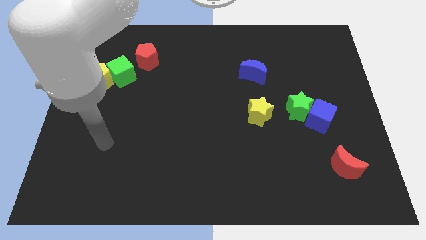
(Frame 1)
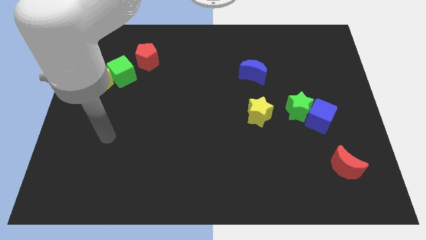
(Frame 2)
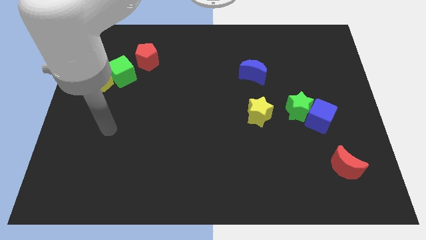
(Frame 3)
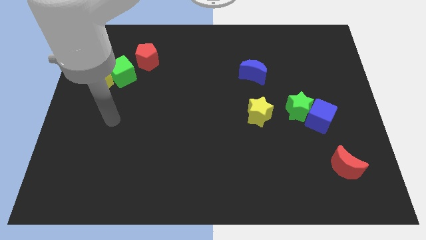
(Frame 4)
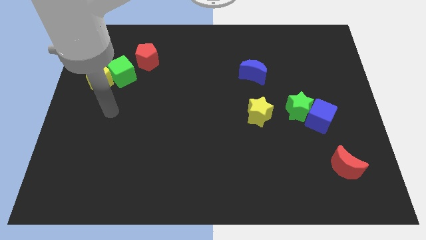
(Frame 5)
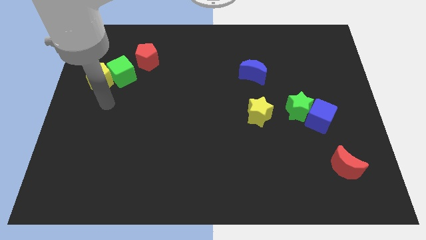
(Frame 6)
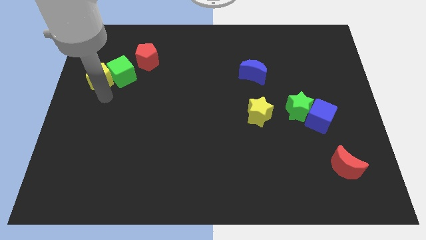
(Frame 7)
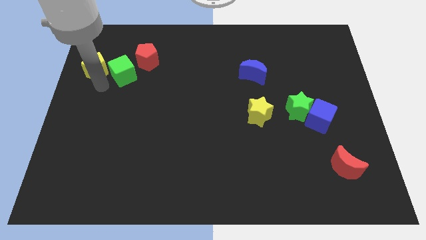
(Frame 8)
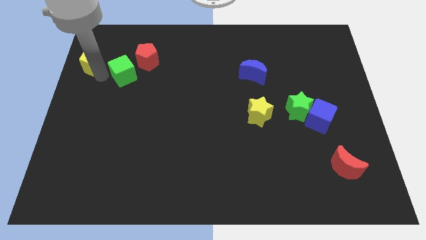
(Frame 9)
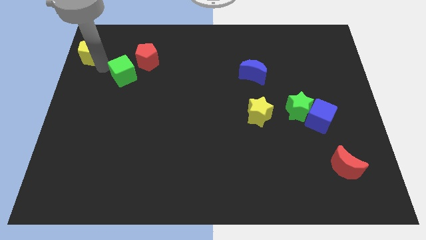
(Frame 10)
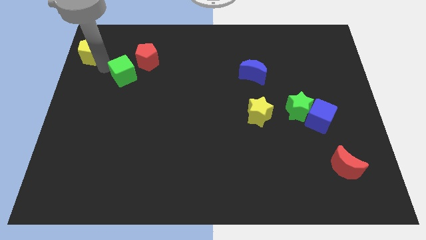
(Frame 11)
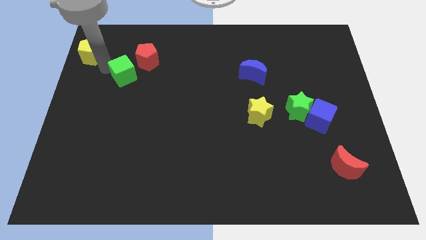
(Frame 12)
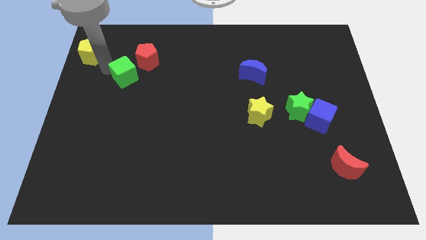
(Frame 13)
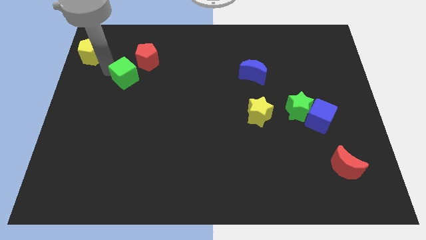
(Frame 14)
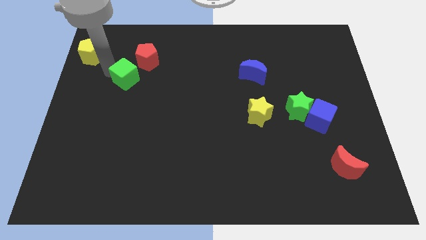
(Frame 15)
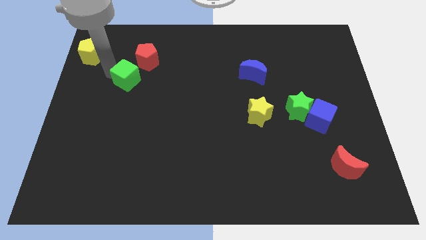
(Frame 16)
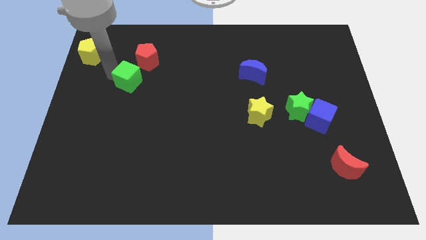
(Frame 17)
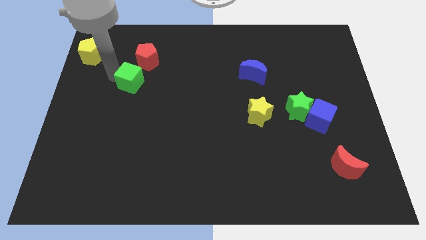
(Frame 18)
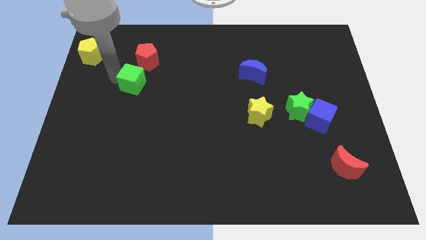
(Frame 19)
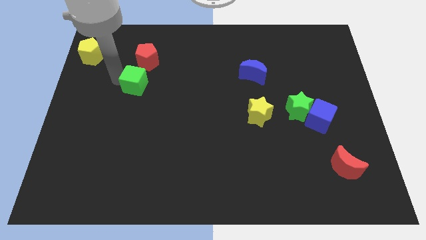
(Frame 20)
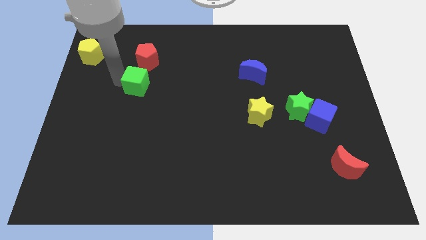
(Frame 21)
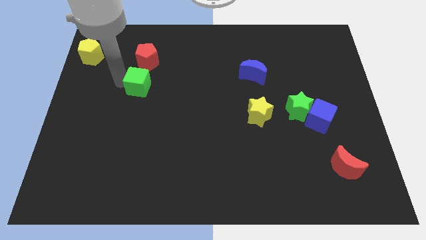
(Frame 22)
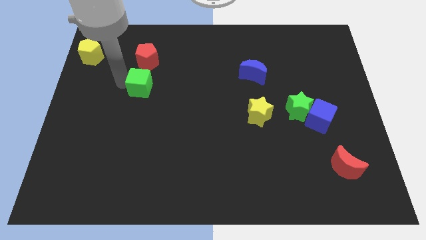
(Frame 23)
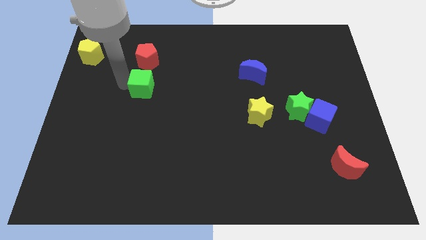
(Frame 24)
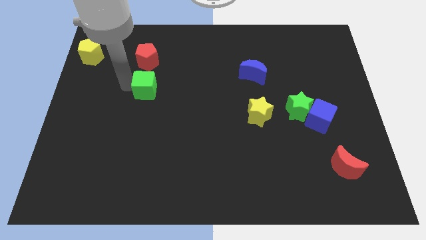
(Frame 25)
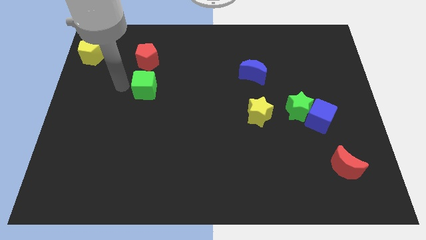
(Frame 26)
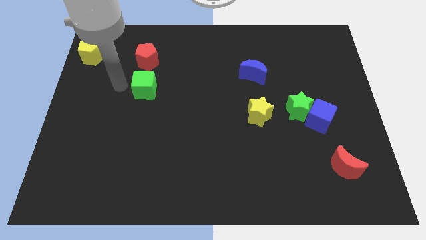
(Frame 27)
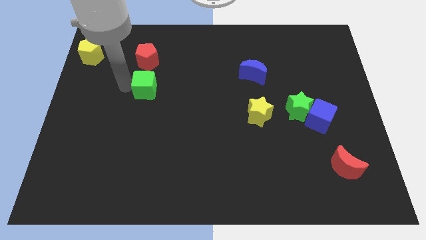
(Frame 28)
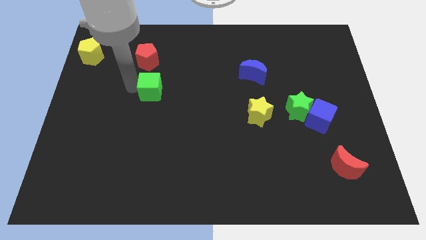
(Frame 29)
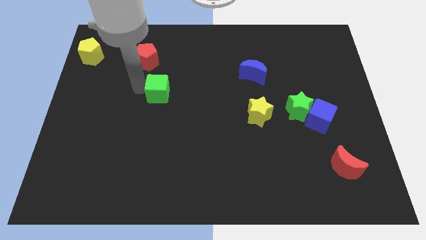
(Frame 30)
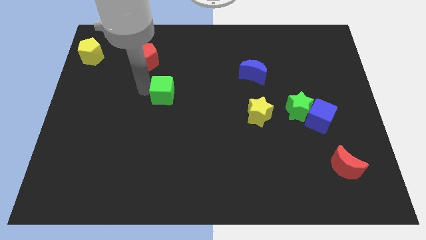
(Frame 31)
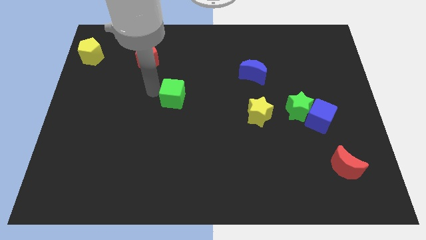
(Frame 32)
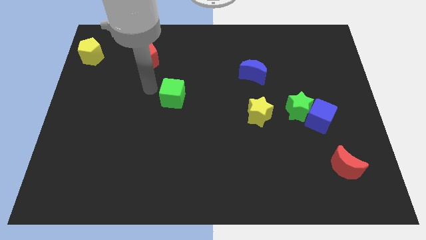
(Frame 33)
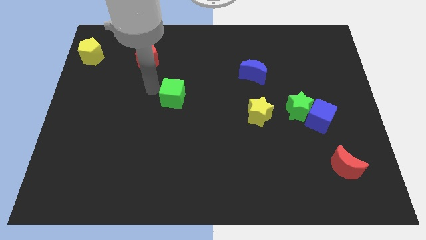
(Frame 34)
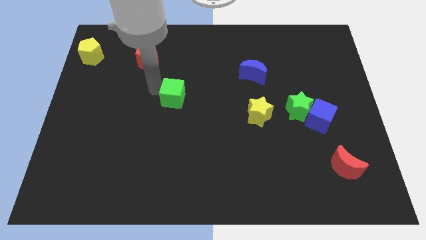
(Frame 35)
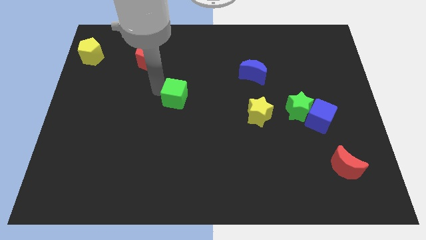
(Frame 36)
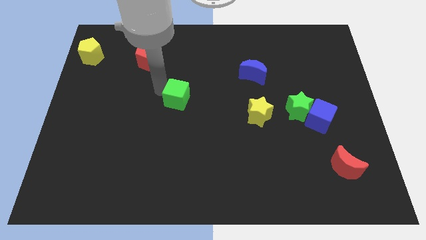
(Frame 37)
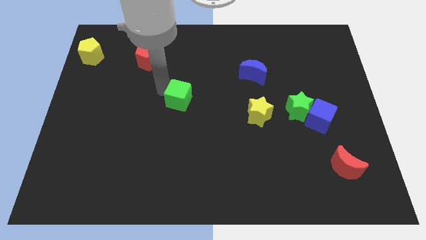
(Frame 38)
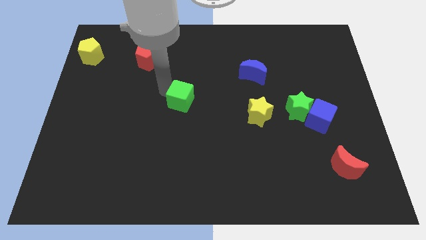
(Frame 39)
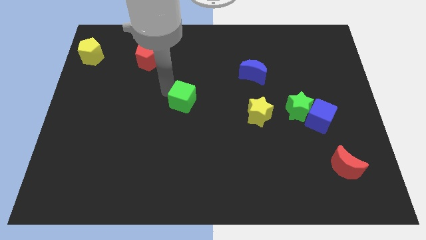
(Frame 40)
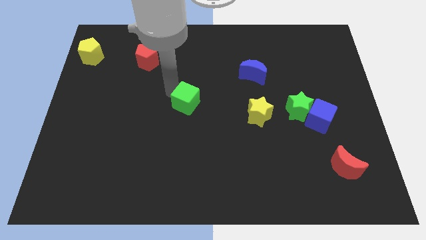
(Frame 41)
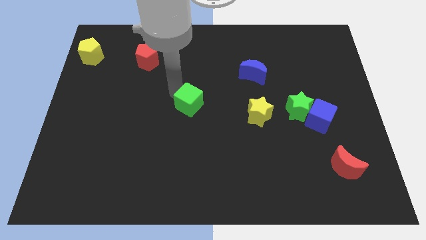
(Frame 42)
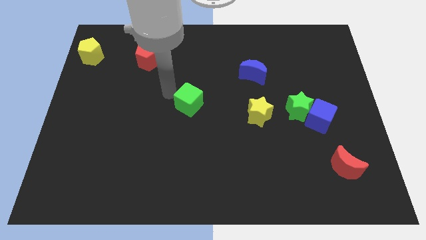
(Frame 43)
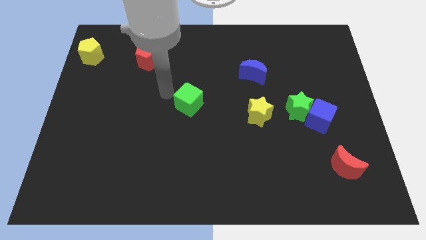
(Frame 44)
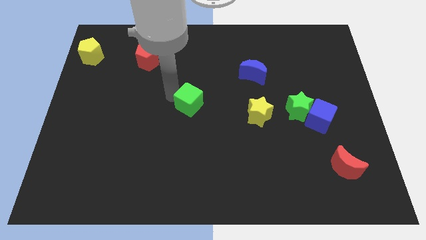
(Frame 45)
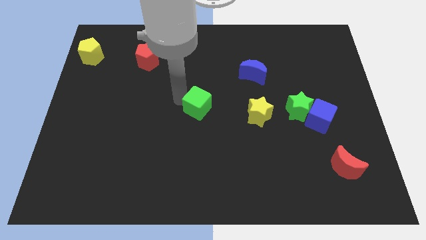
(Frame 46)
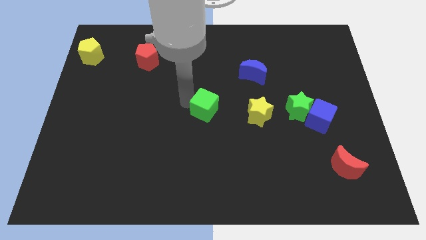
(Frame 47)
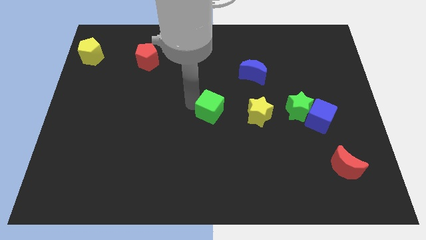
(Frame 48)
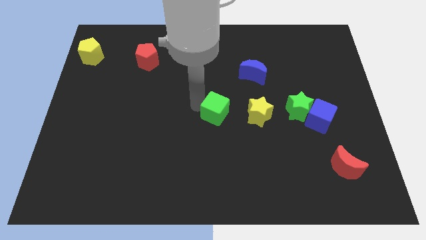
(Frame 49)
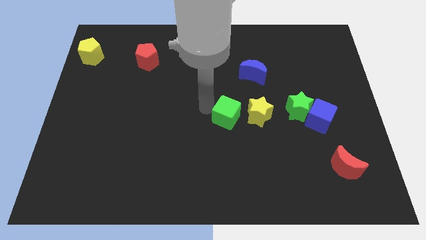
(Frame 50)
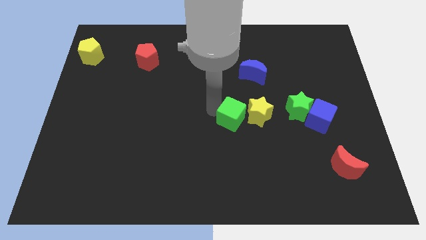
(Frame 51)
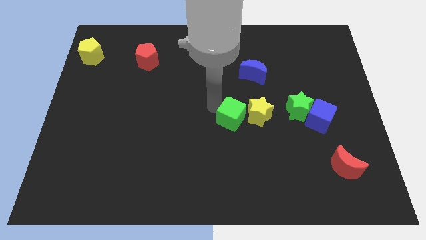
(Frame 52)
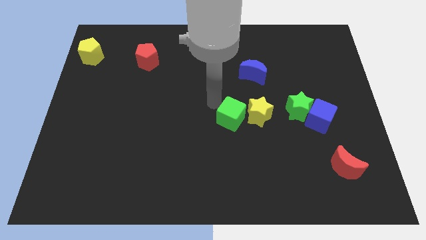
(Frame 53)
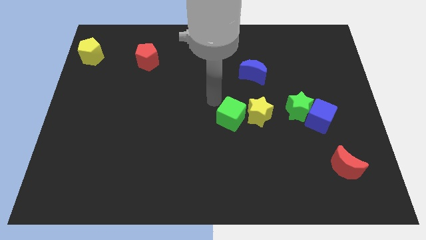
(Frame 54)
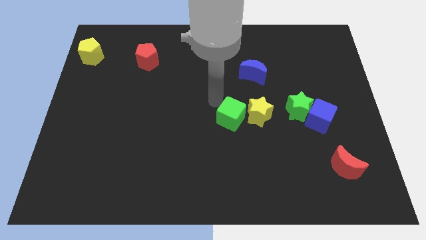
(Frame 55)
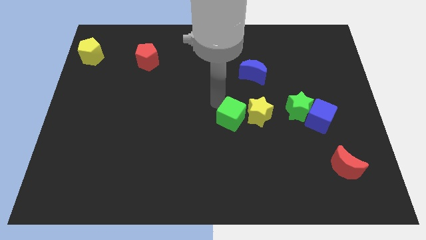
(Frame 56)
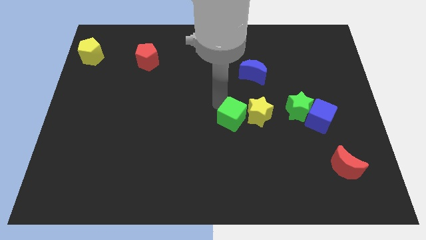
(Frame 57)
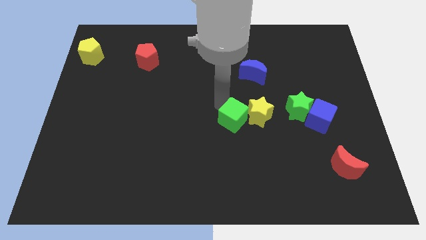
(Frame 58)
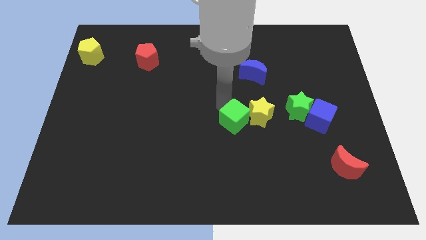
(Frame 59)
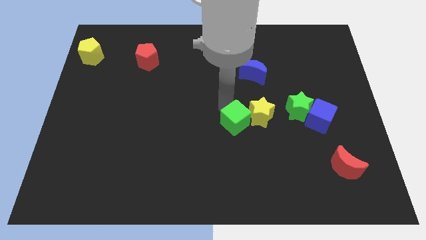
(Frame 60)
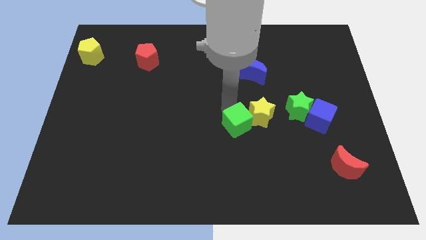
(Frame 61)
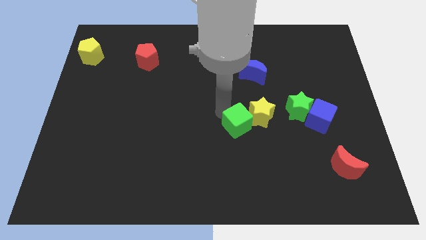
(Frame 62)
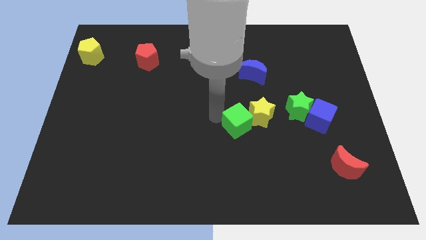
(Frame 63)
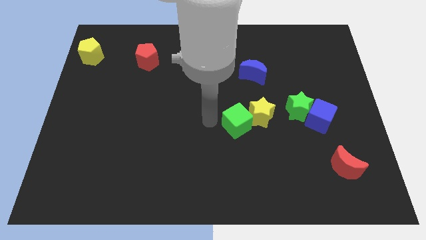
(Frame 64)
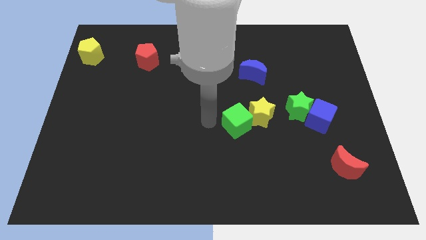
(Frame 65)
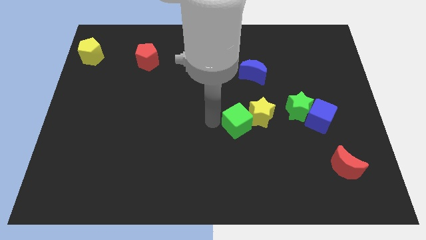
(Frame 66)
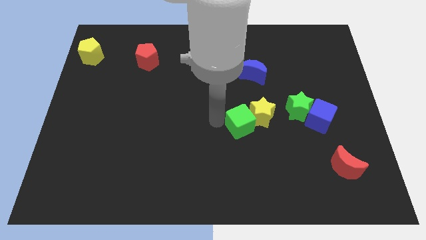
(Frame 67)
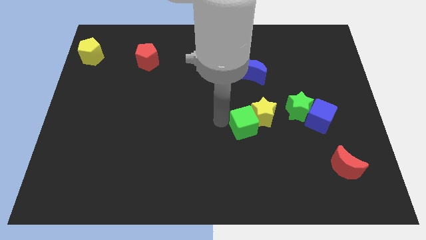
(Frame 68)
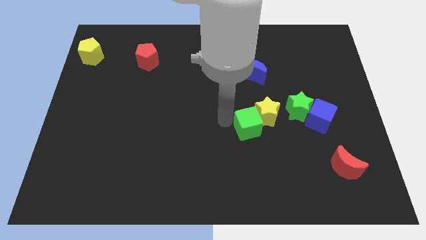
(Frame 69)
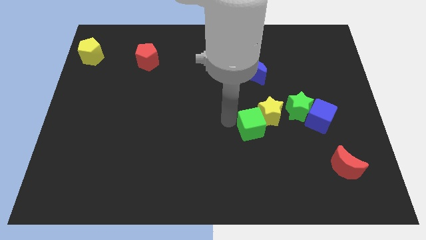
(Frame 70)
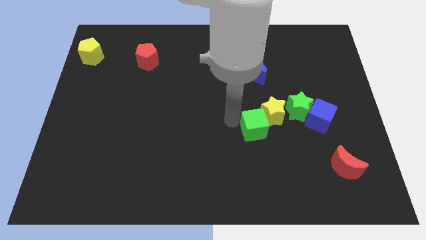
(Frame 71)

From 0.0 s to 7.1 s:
slide the green cube to the bottom left of the green star

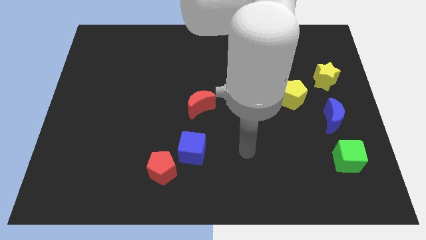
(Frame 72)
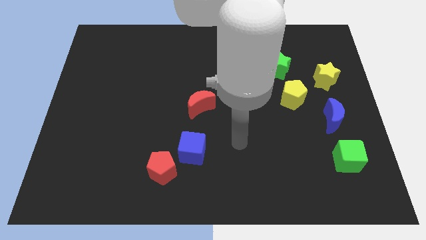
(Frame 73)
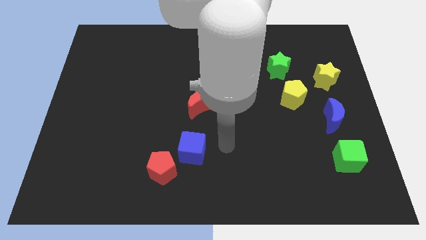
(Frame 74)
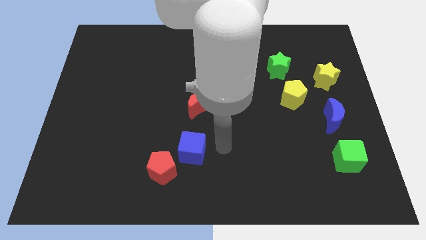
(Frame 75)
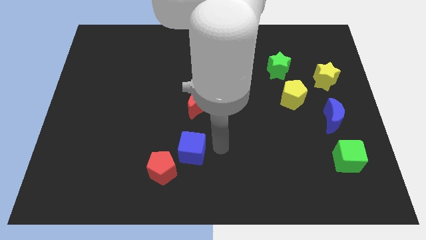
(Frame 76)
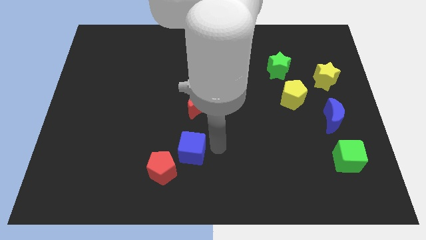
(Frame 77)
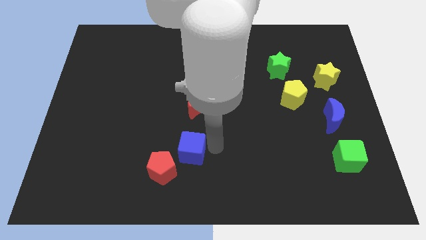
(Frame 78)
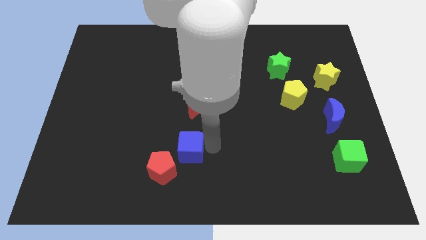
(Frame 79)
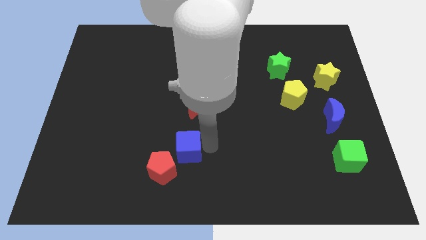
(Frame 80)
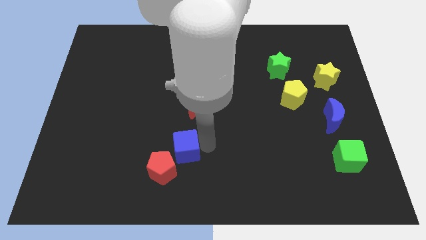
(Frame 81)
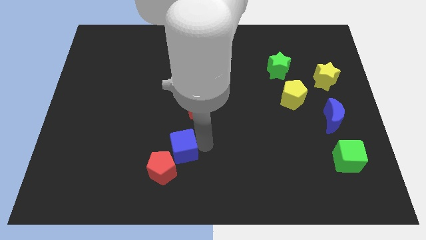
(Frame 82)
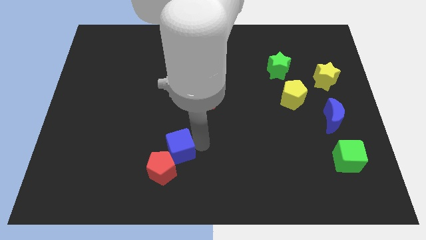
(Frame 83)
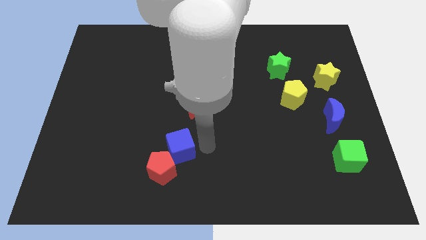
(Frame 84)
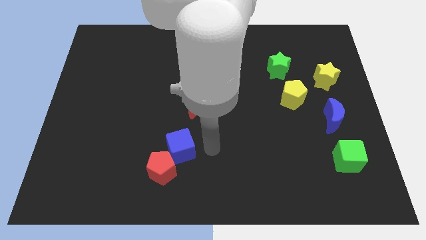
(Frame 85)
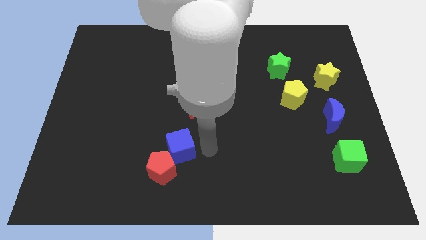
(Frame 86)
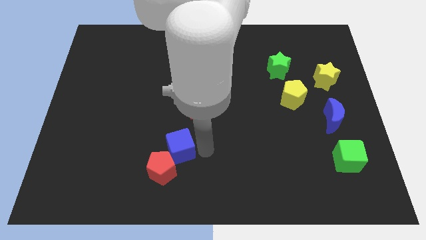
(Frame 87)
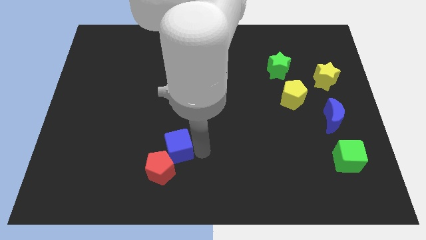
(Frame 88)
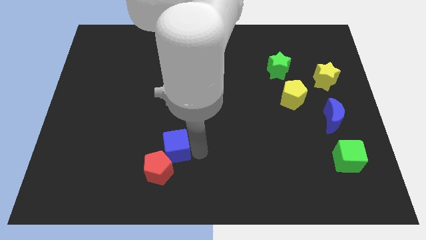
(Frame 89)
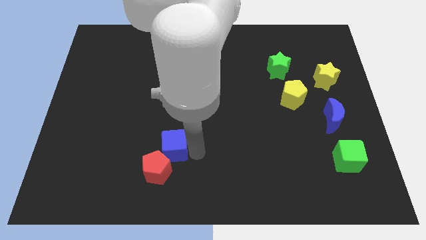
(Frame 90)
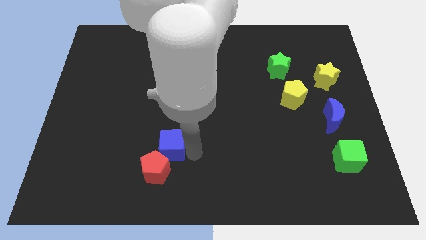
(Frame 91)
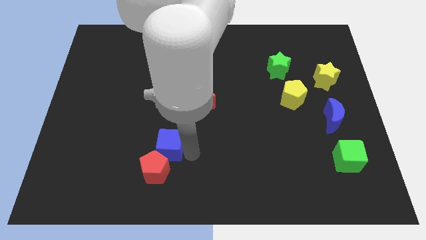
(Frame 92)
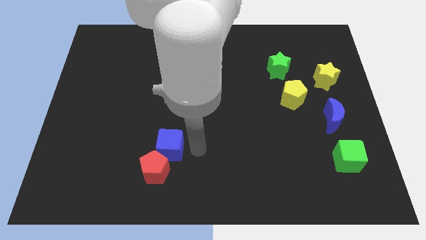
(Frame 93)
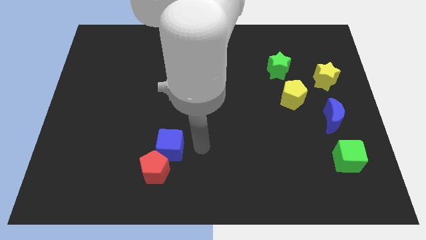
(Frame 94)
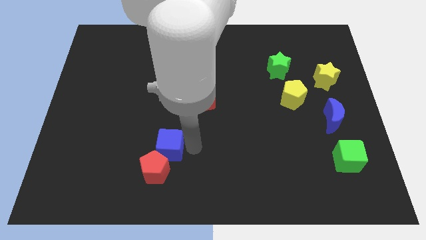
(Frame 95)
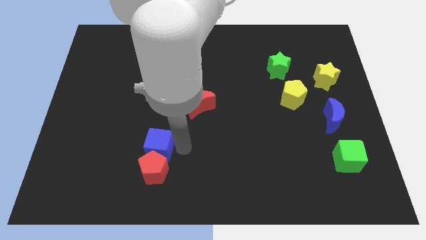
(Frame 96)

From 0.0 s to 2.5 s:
move the blue cube diagonally up and to the left of the red pentagon
